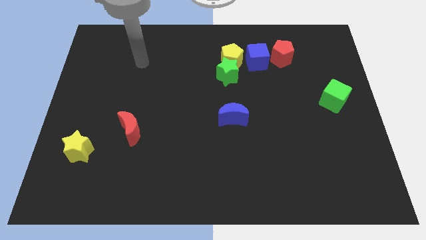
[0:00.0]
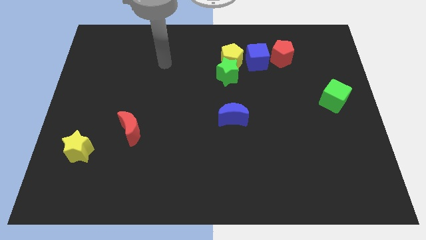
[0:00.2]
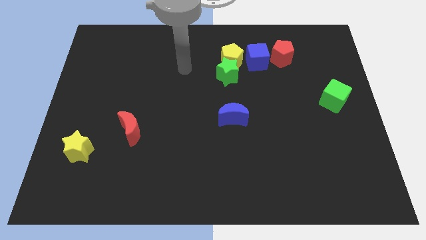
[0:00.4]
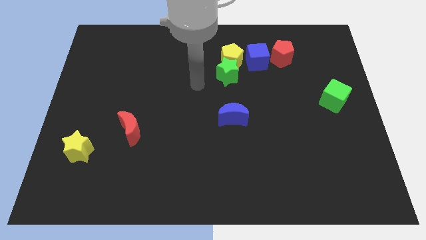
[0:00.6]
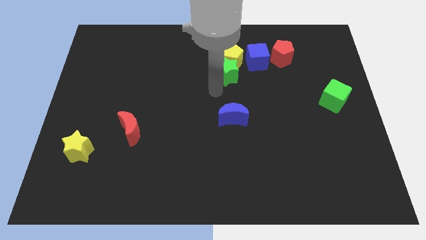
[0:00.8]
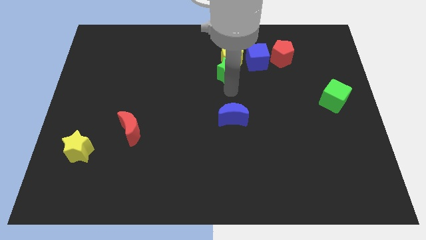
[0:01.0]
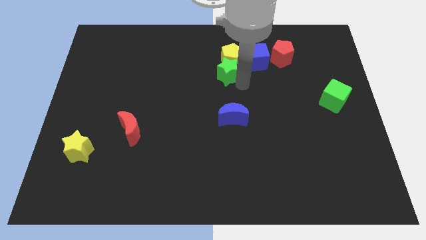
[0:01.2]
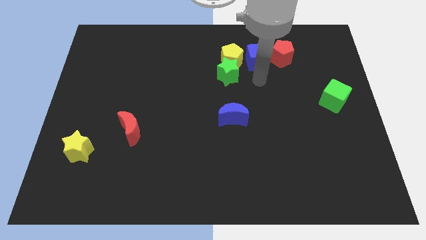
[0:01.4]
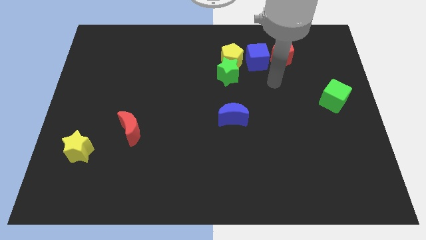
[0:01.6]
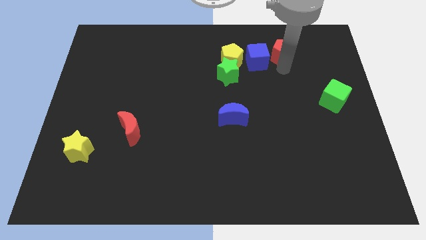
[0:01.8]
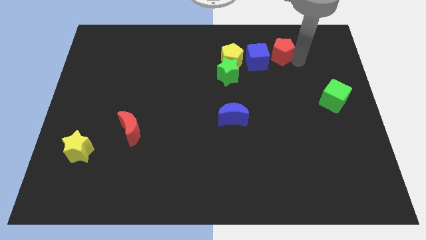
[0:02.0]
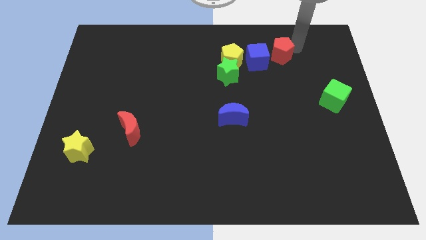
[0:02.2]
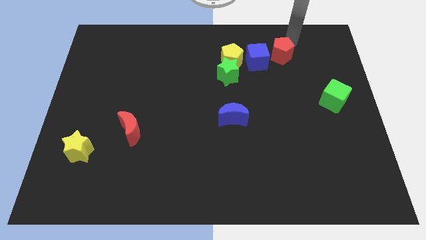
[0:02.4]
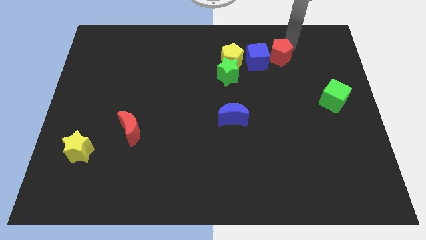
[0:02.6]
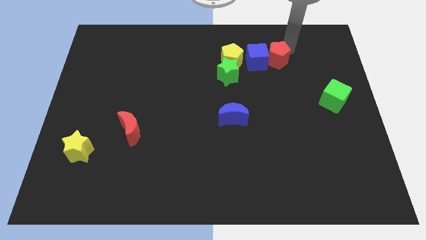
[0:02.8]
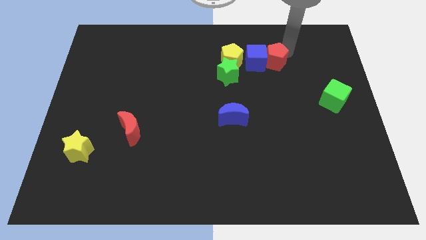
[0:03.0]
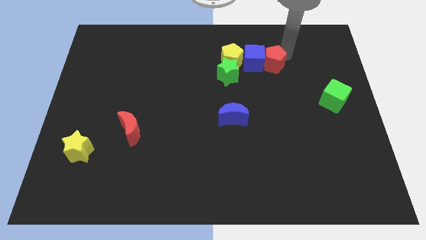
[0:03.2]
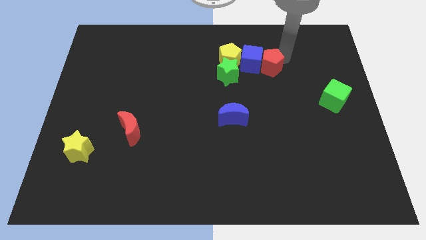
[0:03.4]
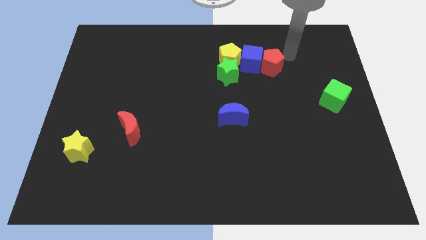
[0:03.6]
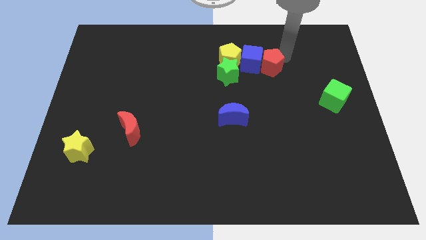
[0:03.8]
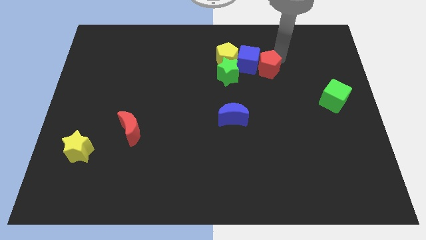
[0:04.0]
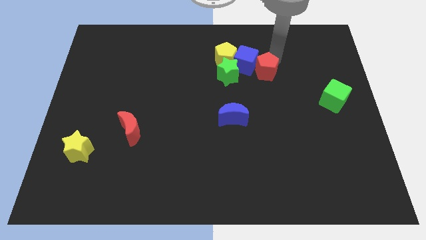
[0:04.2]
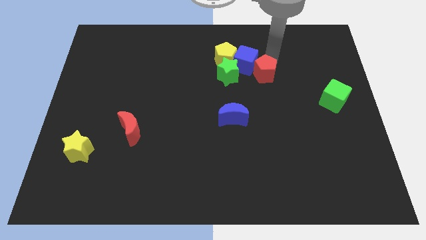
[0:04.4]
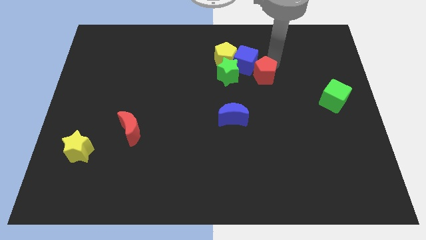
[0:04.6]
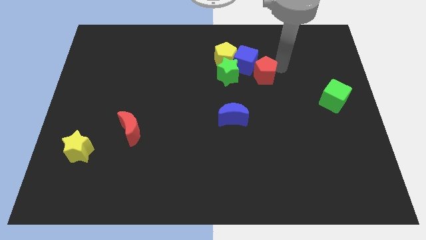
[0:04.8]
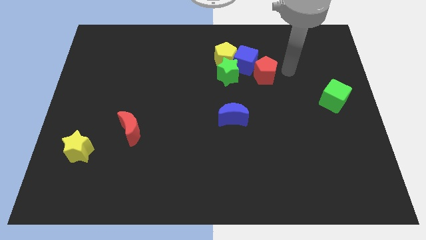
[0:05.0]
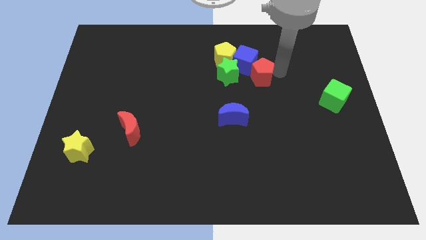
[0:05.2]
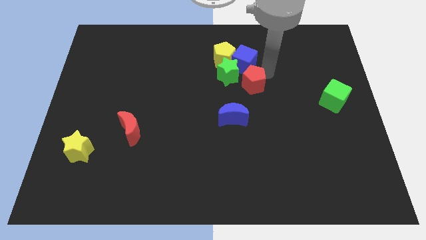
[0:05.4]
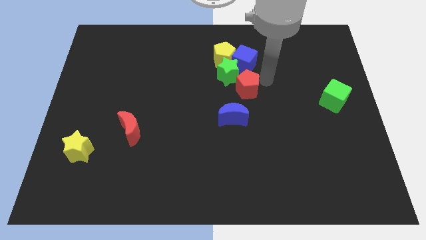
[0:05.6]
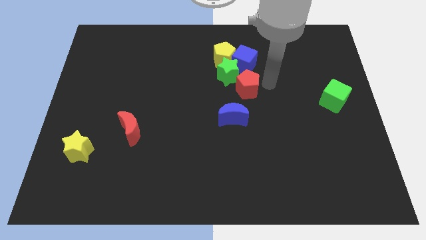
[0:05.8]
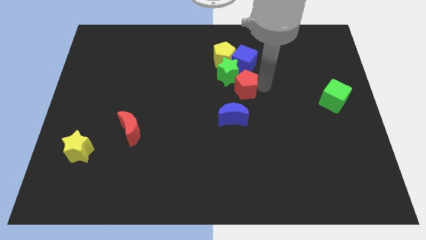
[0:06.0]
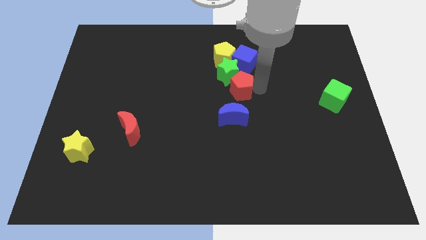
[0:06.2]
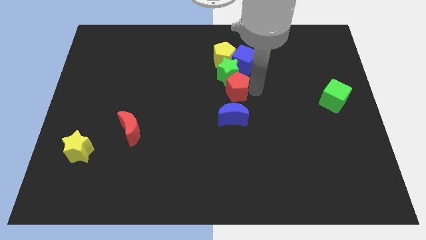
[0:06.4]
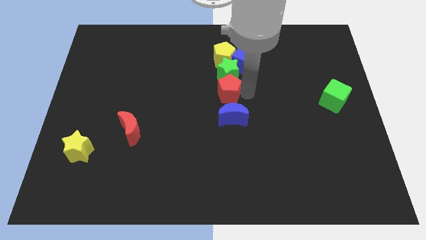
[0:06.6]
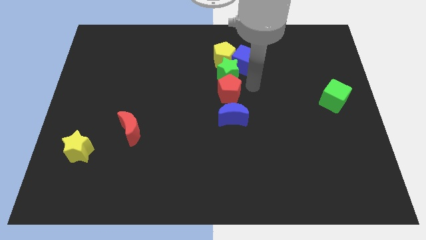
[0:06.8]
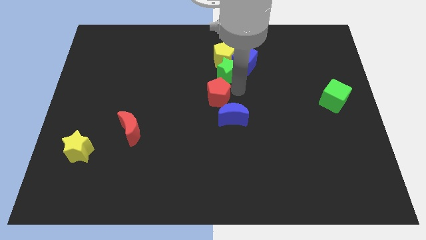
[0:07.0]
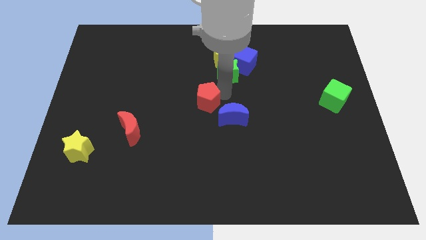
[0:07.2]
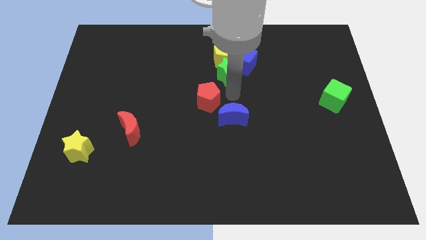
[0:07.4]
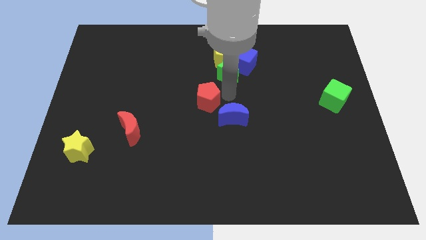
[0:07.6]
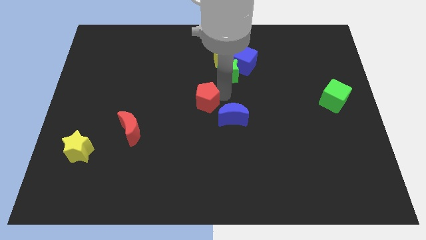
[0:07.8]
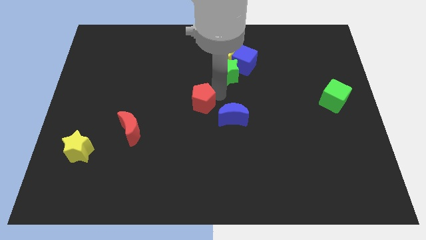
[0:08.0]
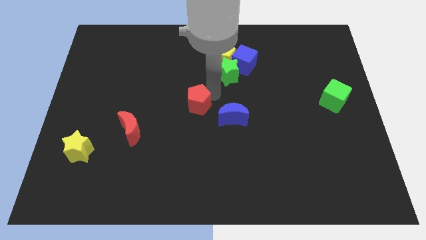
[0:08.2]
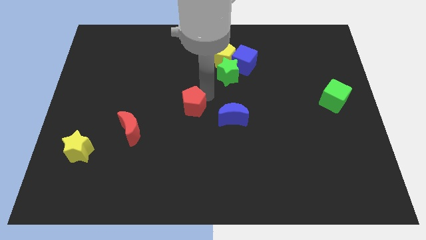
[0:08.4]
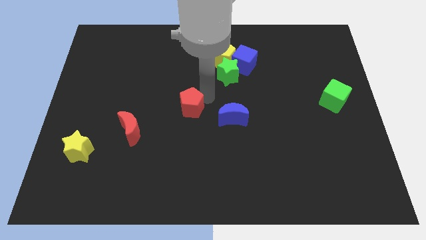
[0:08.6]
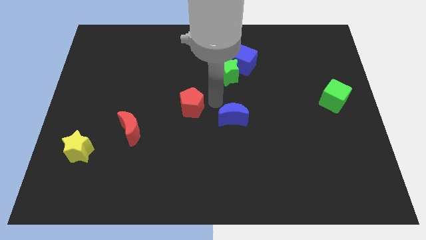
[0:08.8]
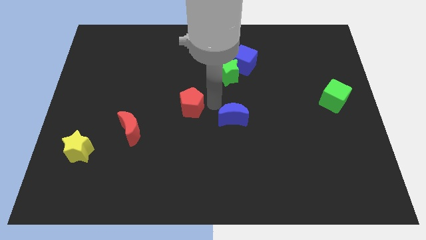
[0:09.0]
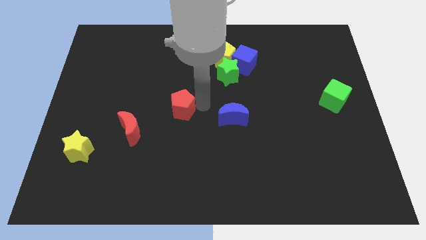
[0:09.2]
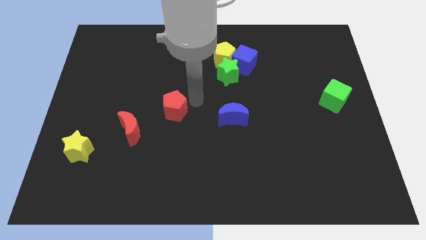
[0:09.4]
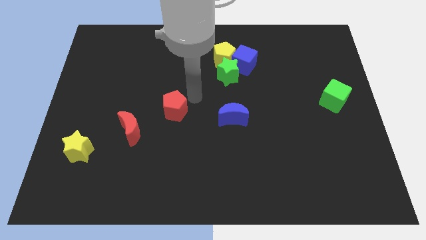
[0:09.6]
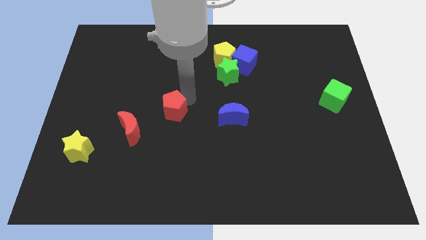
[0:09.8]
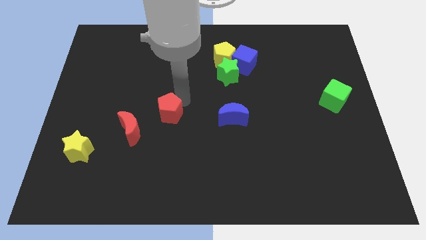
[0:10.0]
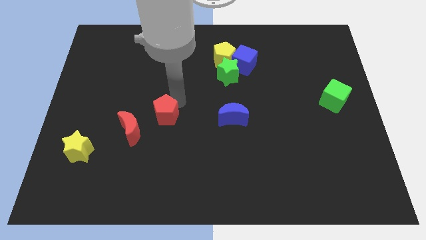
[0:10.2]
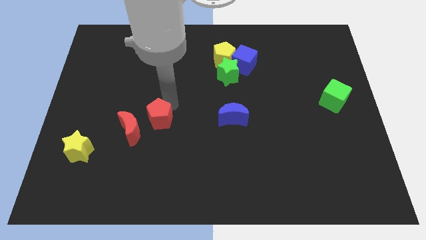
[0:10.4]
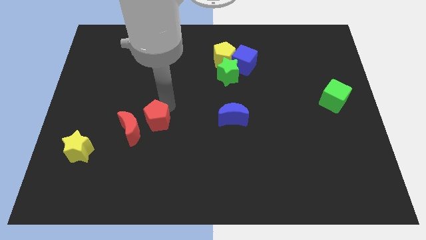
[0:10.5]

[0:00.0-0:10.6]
put the red pentagon towards the red moon

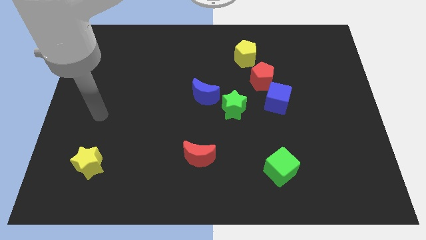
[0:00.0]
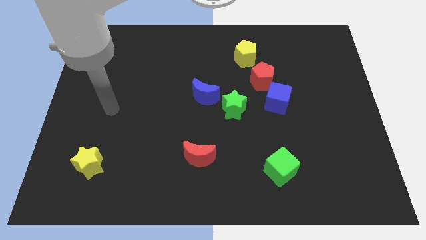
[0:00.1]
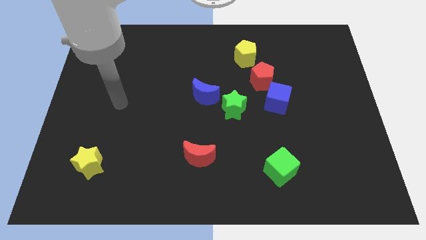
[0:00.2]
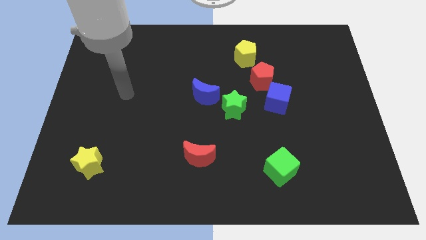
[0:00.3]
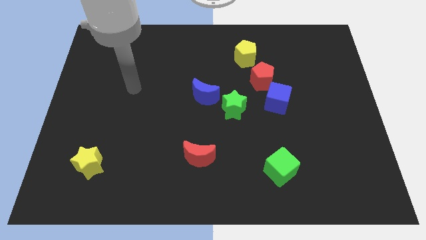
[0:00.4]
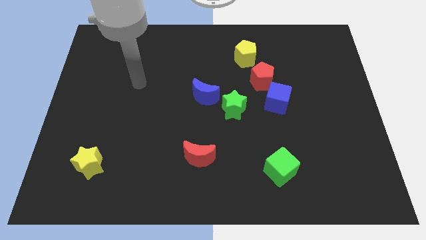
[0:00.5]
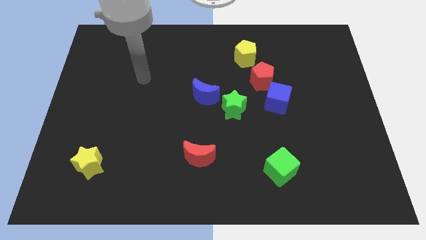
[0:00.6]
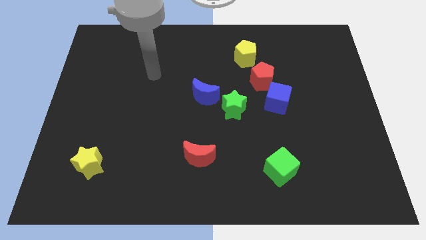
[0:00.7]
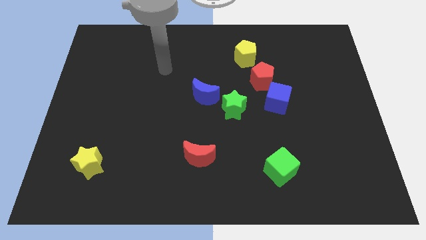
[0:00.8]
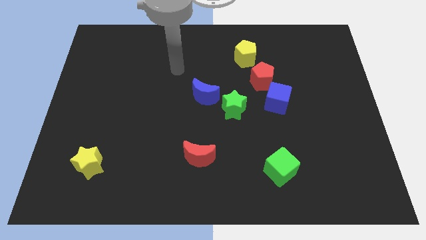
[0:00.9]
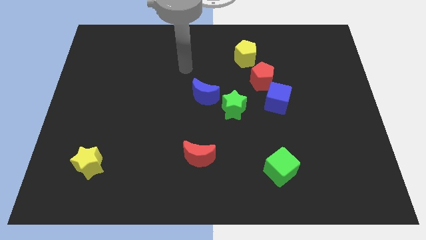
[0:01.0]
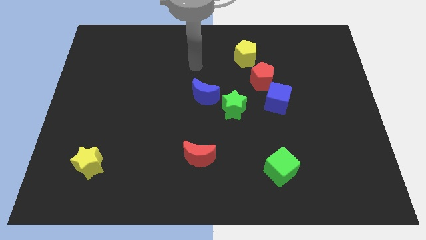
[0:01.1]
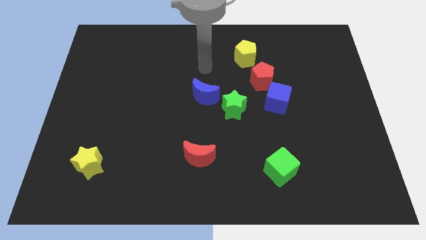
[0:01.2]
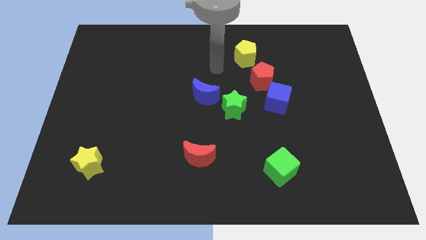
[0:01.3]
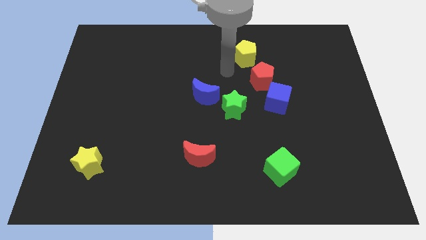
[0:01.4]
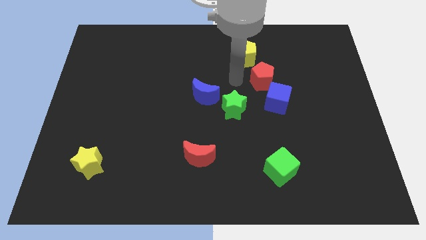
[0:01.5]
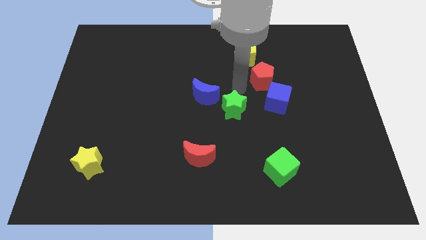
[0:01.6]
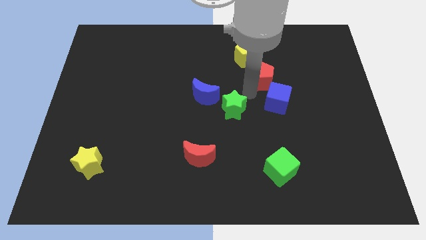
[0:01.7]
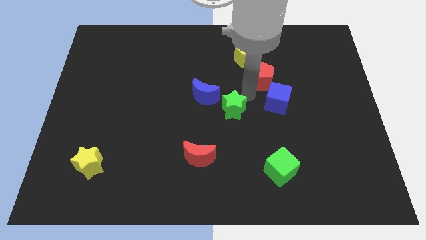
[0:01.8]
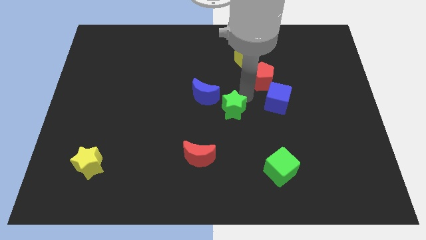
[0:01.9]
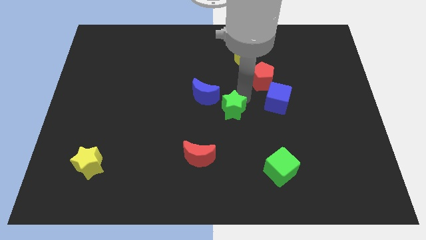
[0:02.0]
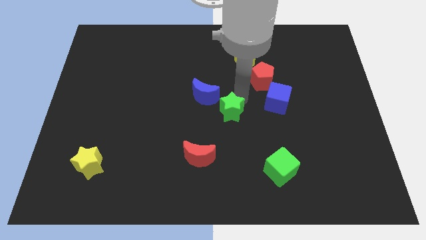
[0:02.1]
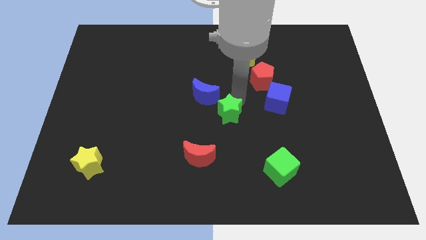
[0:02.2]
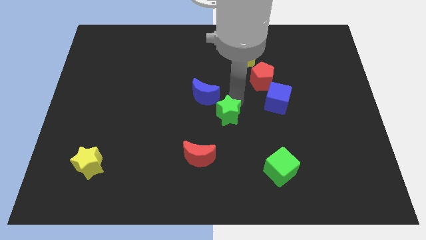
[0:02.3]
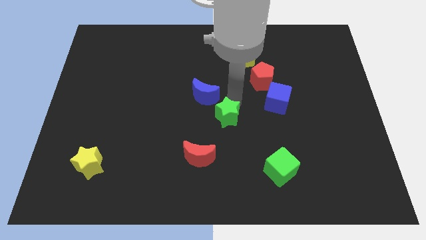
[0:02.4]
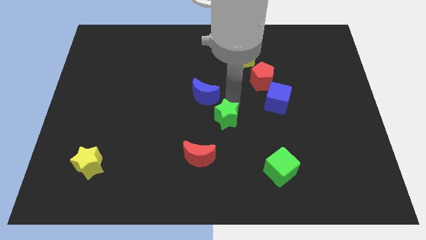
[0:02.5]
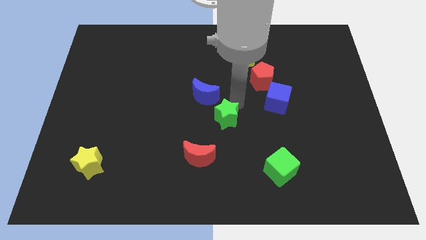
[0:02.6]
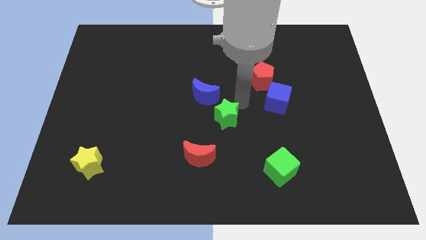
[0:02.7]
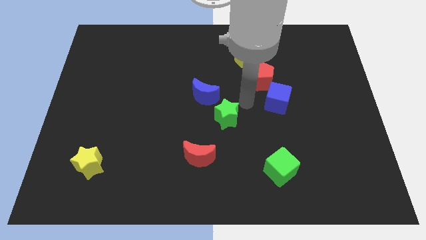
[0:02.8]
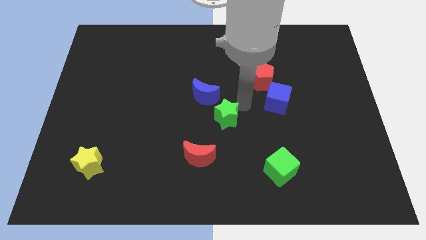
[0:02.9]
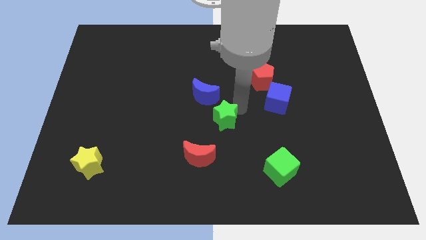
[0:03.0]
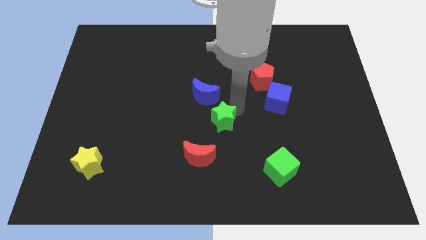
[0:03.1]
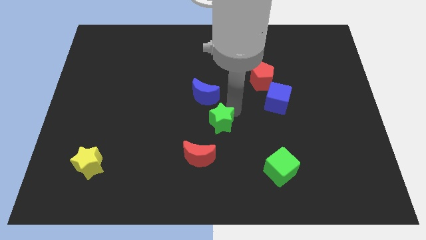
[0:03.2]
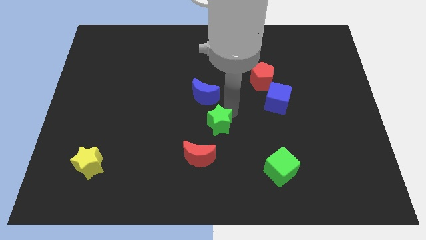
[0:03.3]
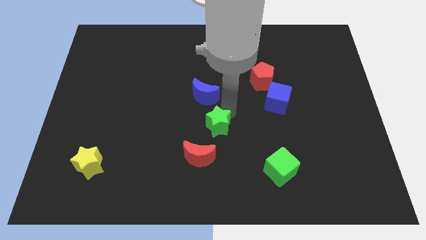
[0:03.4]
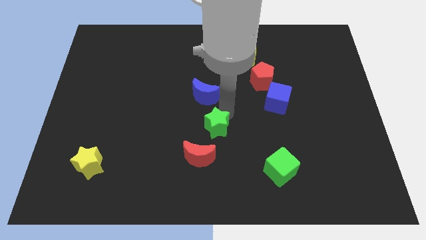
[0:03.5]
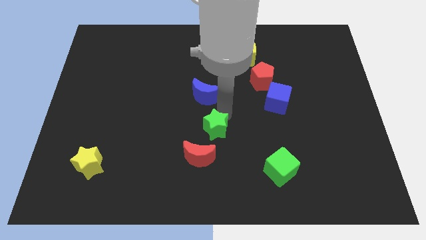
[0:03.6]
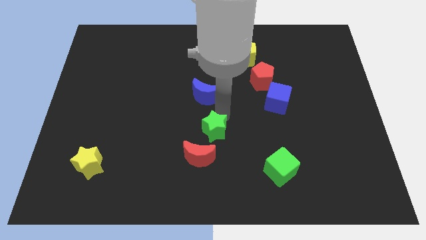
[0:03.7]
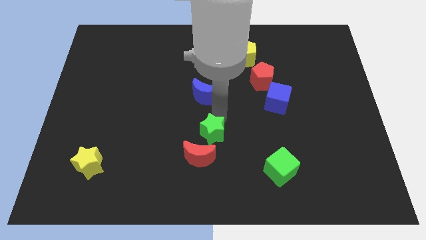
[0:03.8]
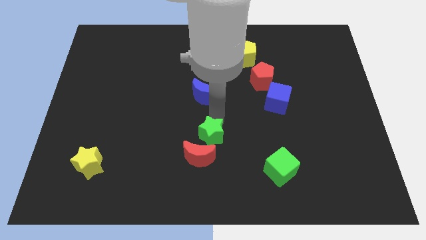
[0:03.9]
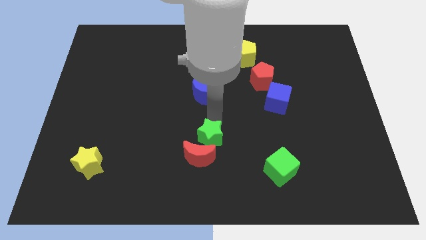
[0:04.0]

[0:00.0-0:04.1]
move the green star towards the red moon
